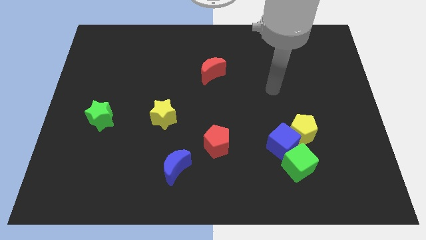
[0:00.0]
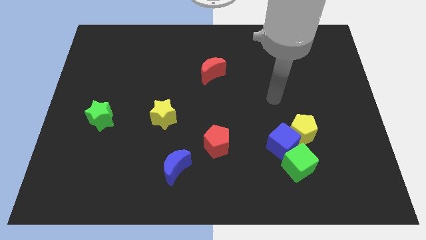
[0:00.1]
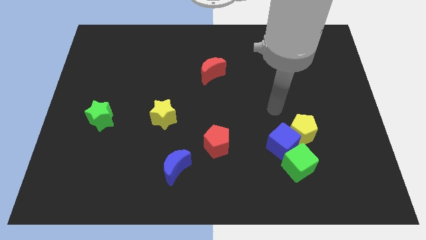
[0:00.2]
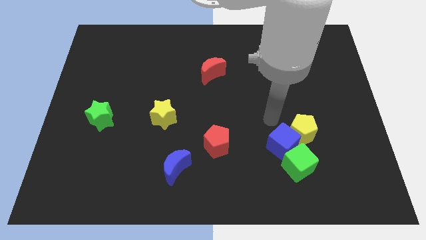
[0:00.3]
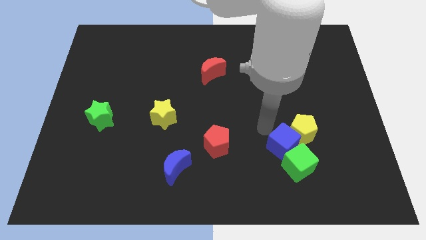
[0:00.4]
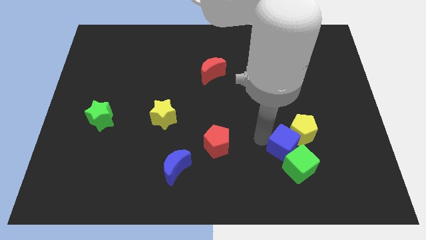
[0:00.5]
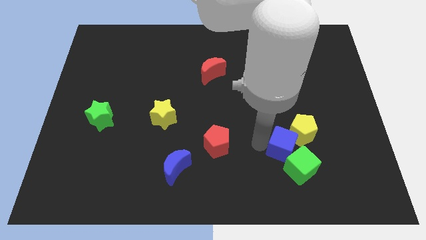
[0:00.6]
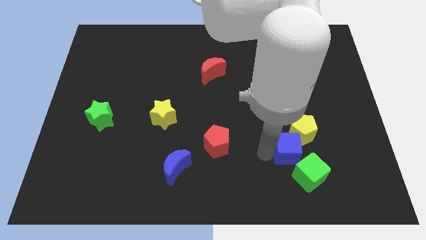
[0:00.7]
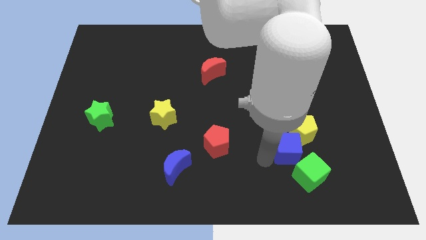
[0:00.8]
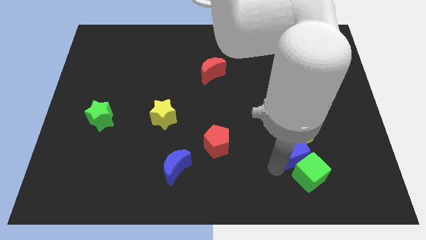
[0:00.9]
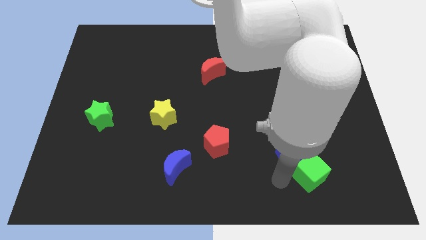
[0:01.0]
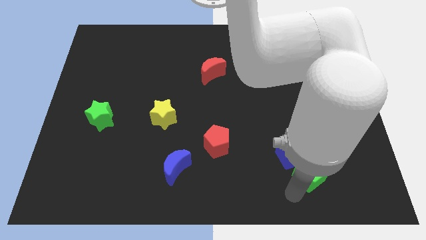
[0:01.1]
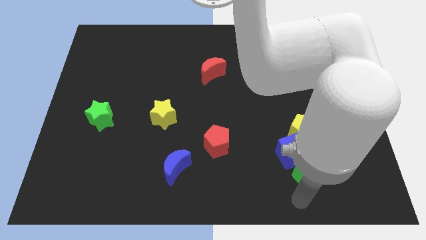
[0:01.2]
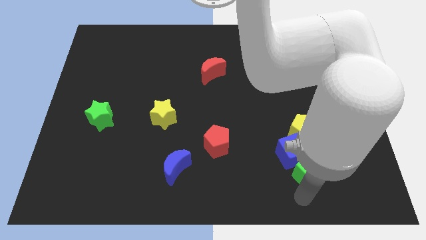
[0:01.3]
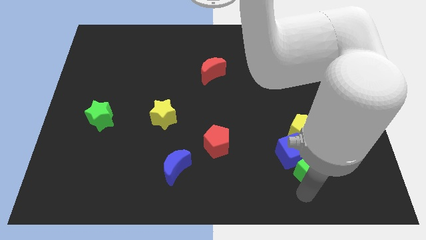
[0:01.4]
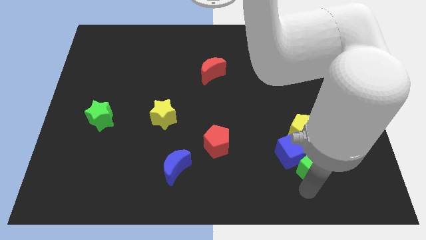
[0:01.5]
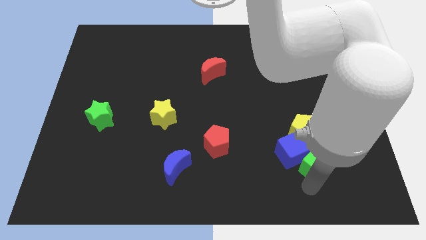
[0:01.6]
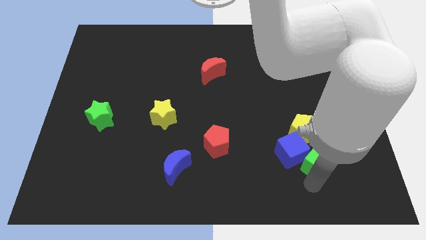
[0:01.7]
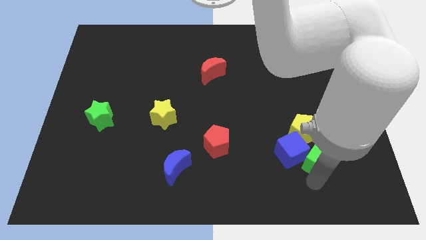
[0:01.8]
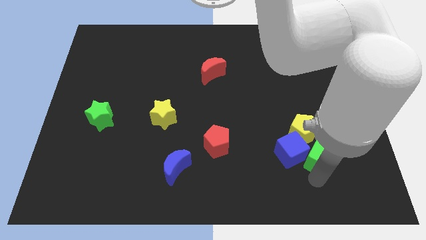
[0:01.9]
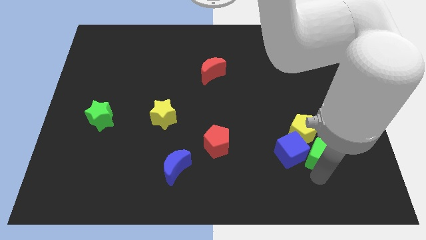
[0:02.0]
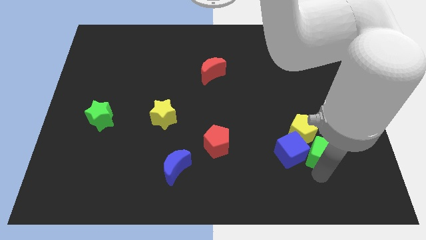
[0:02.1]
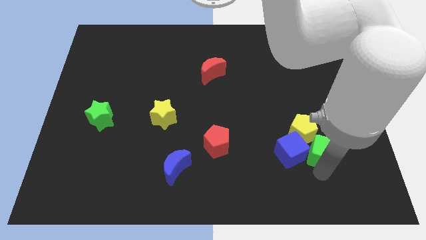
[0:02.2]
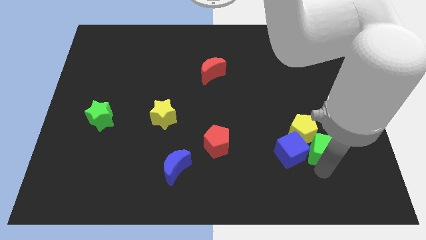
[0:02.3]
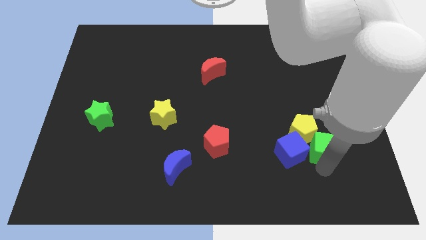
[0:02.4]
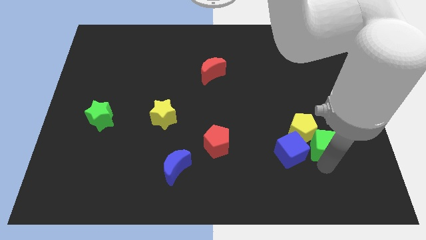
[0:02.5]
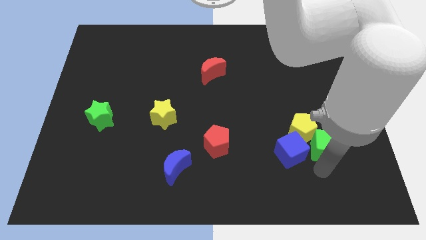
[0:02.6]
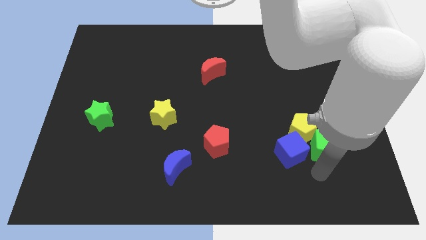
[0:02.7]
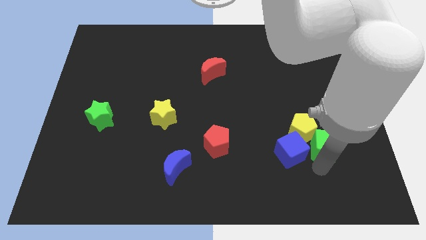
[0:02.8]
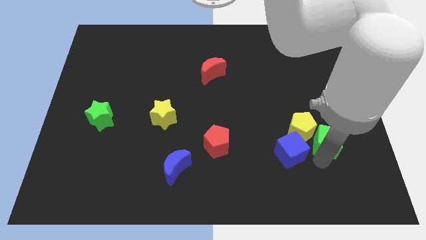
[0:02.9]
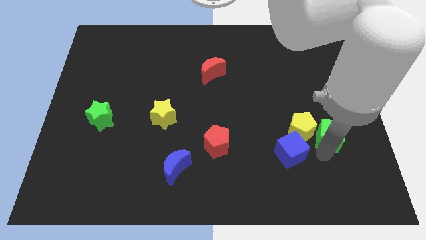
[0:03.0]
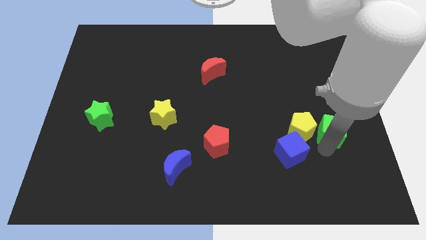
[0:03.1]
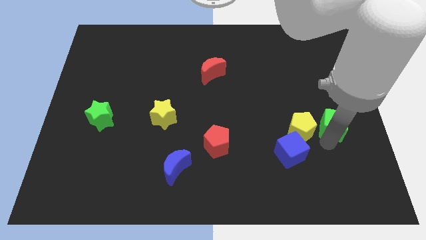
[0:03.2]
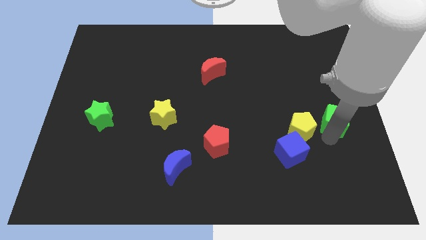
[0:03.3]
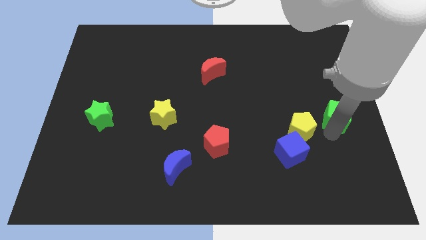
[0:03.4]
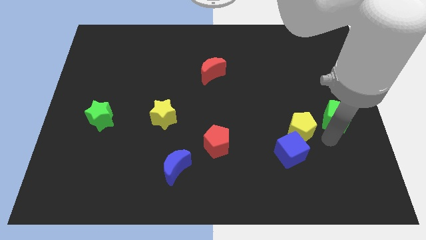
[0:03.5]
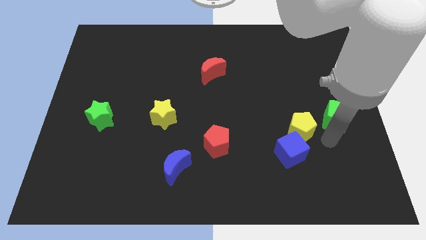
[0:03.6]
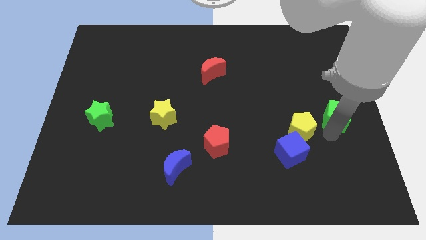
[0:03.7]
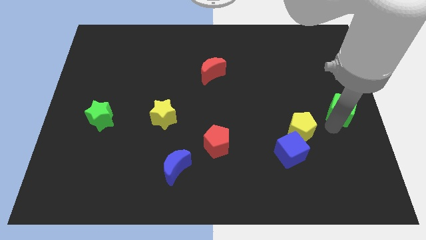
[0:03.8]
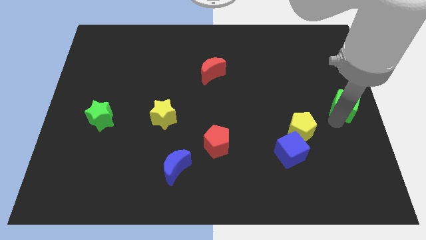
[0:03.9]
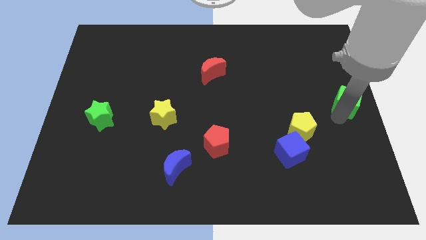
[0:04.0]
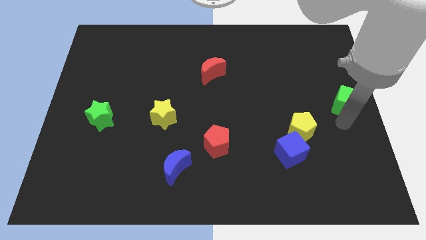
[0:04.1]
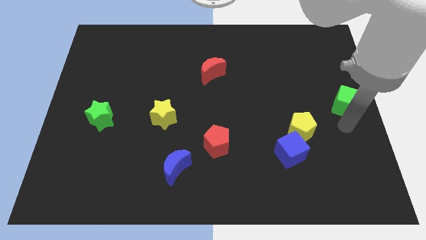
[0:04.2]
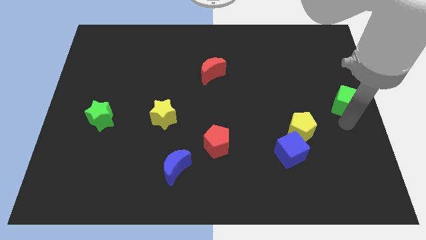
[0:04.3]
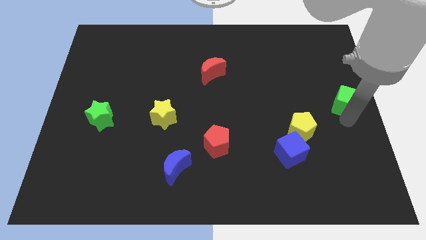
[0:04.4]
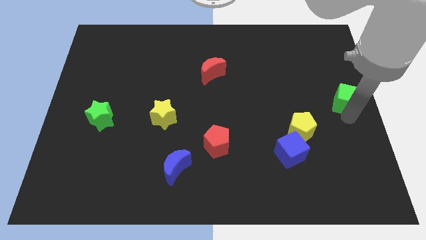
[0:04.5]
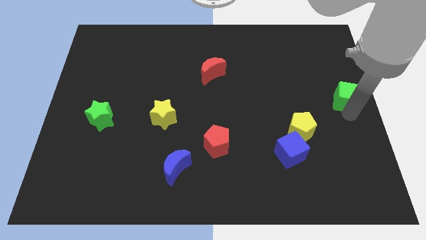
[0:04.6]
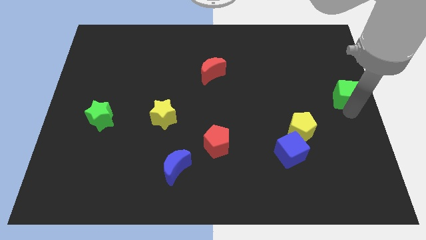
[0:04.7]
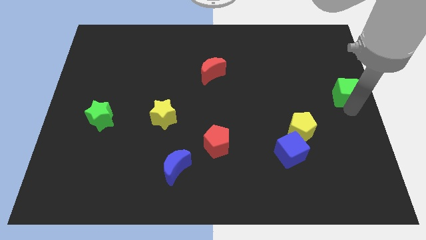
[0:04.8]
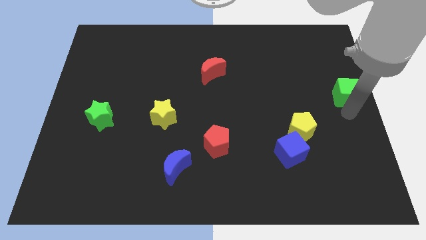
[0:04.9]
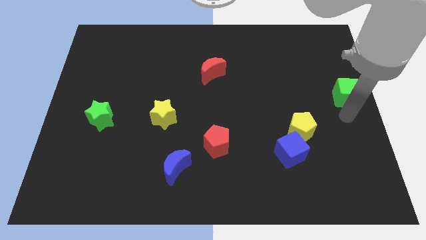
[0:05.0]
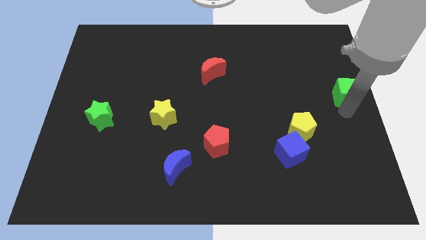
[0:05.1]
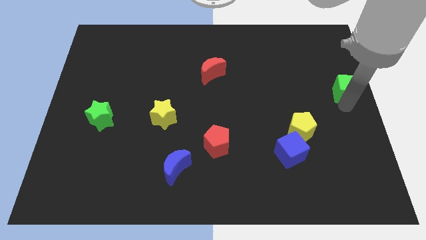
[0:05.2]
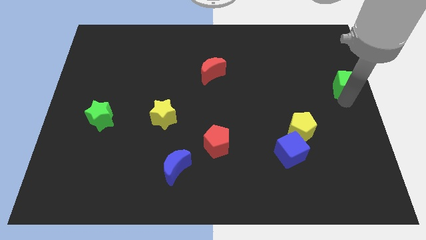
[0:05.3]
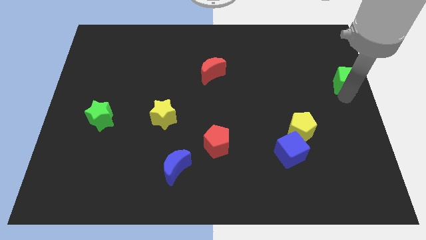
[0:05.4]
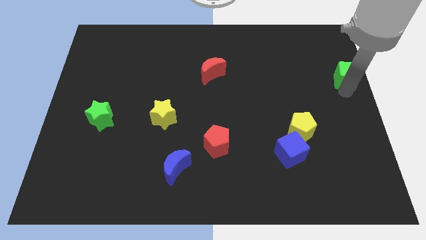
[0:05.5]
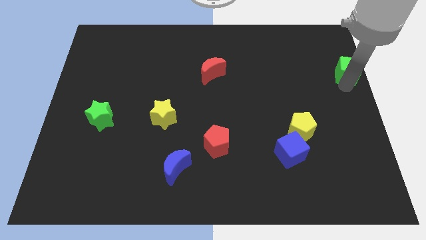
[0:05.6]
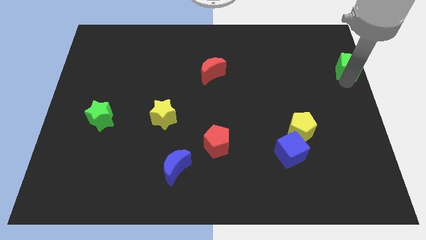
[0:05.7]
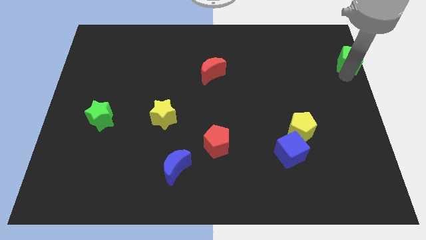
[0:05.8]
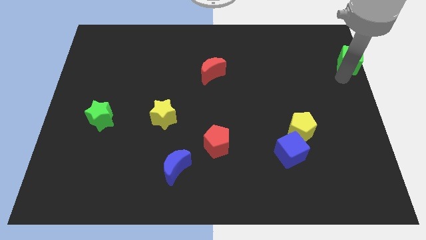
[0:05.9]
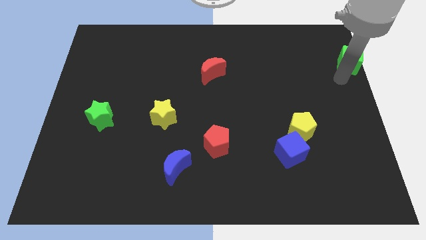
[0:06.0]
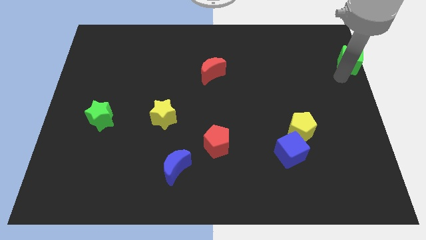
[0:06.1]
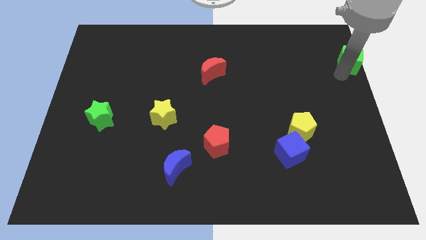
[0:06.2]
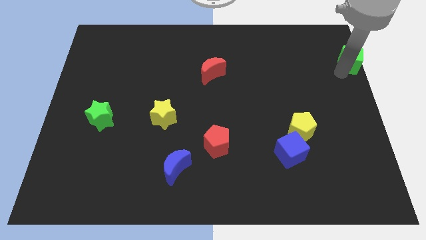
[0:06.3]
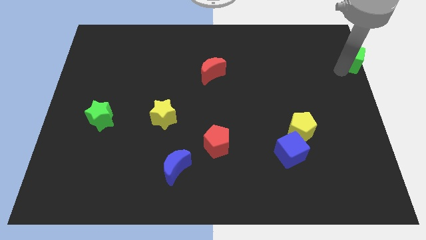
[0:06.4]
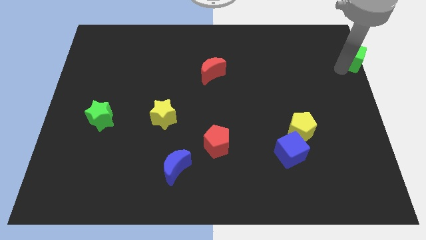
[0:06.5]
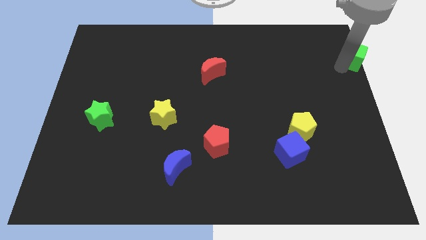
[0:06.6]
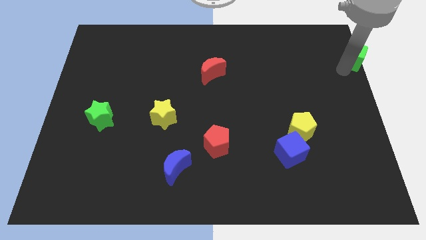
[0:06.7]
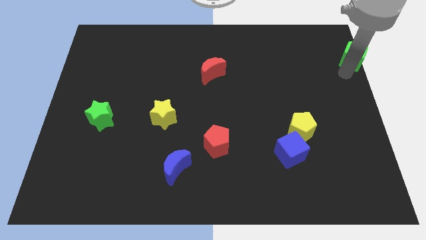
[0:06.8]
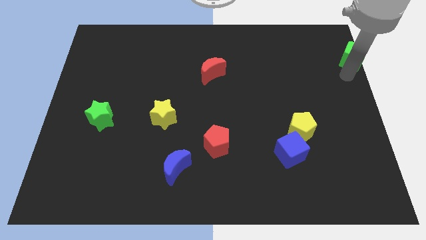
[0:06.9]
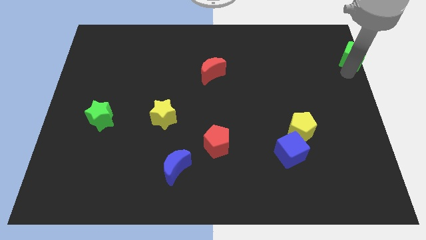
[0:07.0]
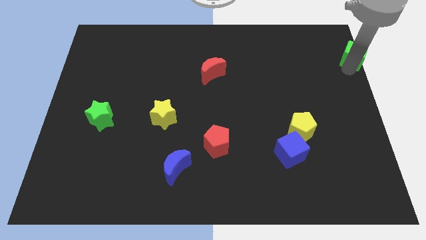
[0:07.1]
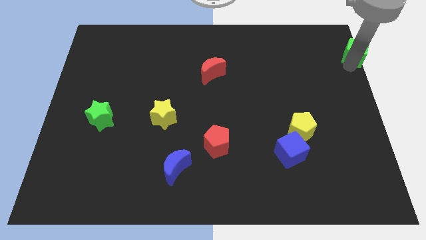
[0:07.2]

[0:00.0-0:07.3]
slide the green cube to the top right
